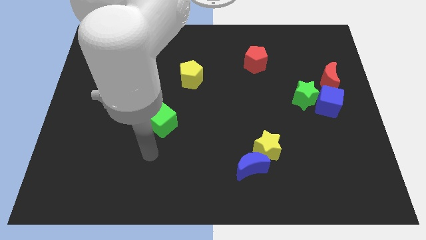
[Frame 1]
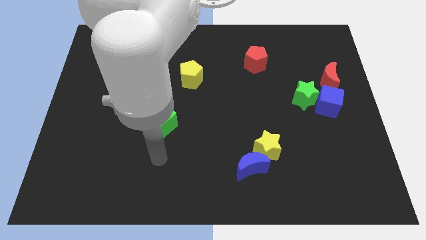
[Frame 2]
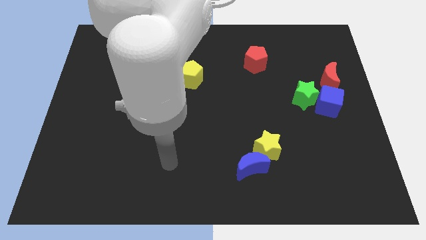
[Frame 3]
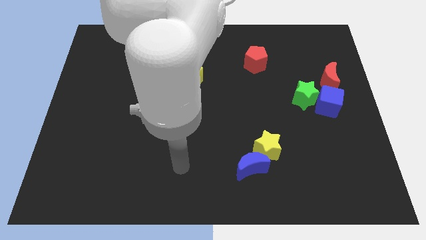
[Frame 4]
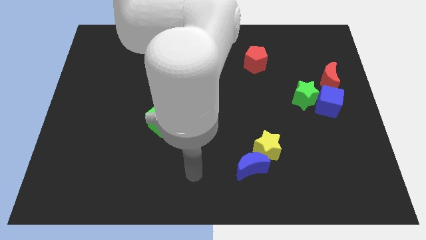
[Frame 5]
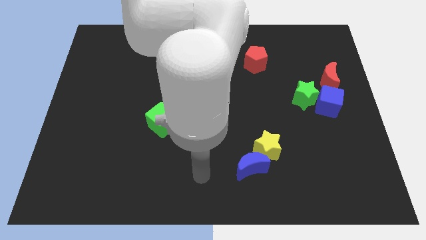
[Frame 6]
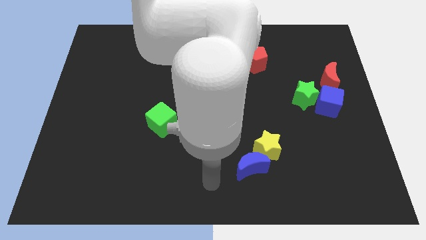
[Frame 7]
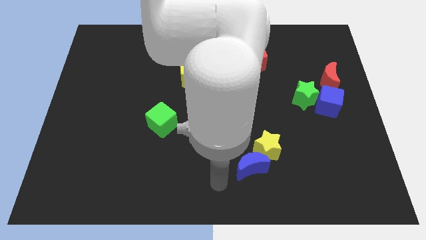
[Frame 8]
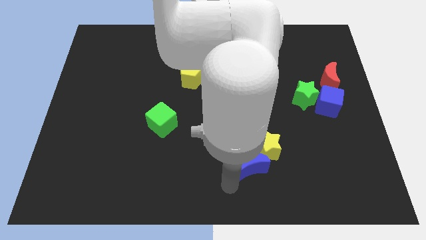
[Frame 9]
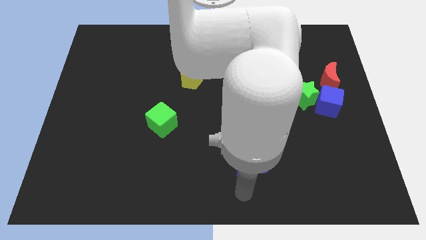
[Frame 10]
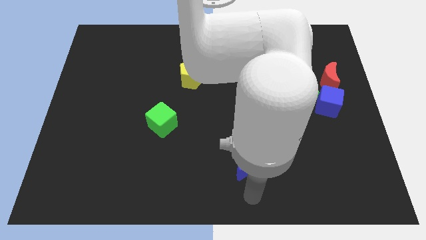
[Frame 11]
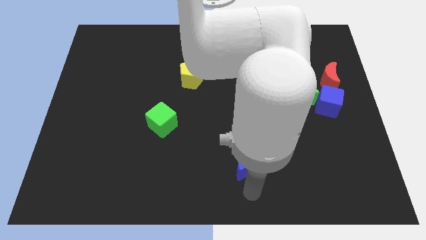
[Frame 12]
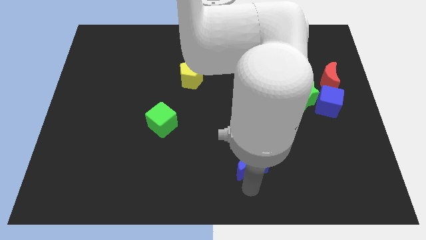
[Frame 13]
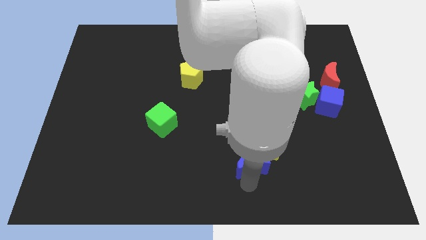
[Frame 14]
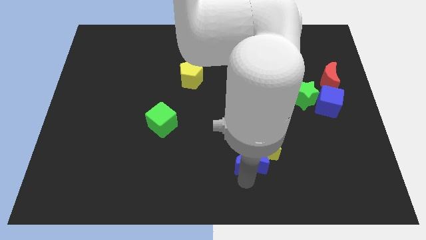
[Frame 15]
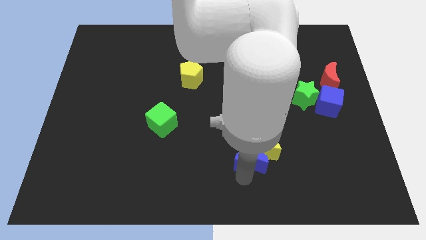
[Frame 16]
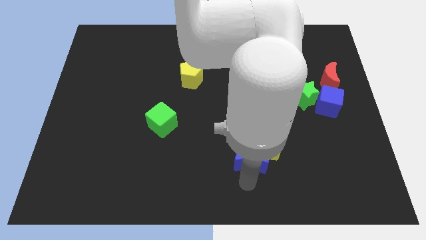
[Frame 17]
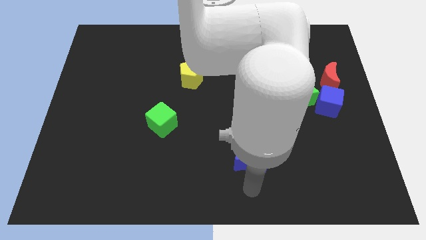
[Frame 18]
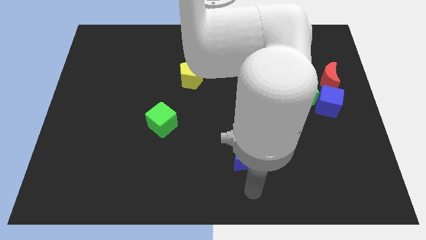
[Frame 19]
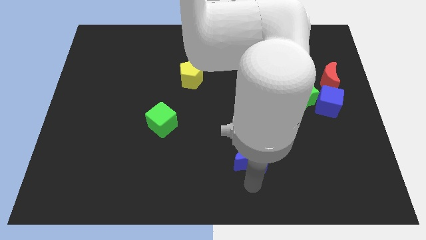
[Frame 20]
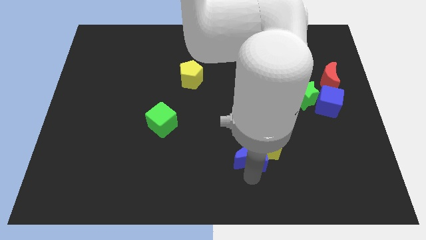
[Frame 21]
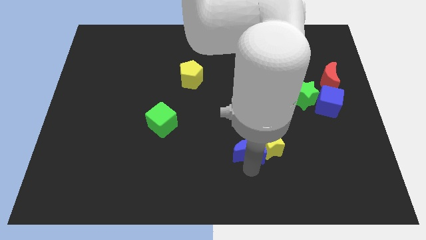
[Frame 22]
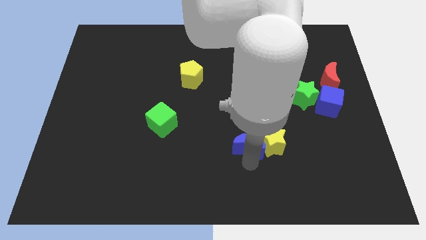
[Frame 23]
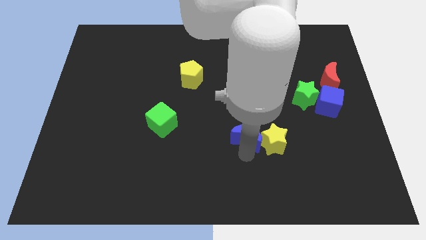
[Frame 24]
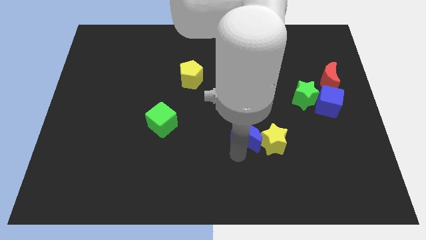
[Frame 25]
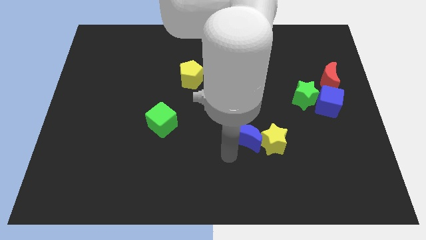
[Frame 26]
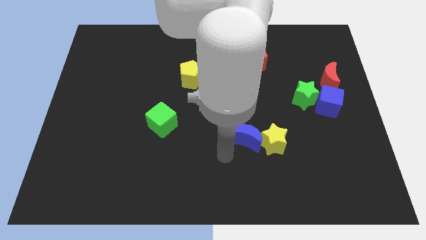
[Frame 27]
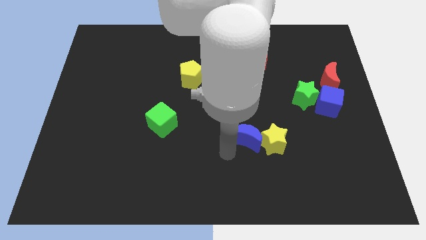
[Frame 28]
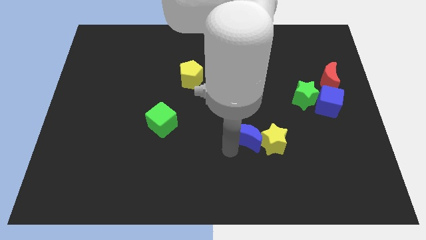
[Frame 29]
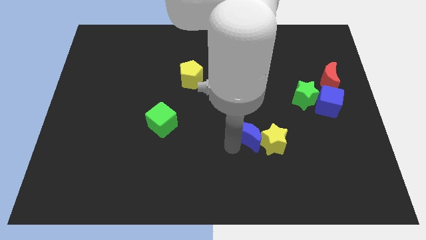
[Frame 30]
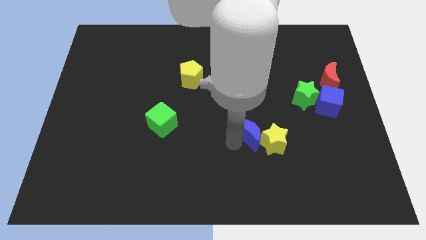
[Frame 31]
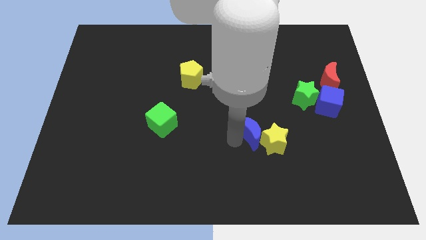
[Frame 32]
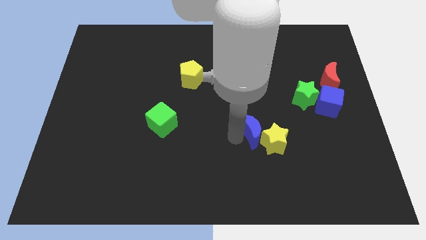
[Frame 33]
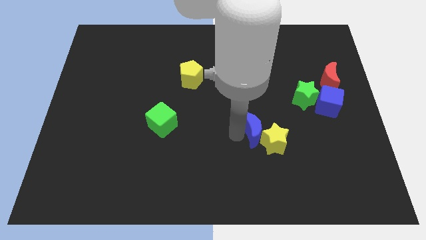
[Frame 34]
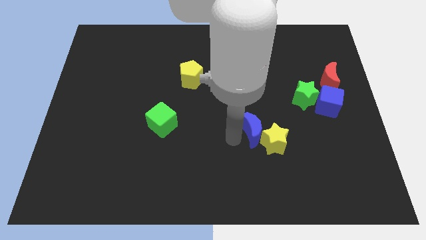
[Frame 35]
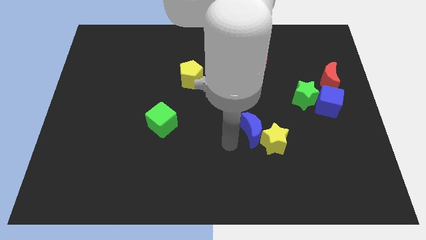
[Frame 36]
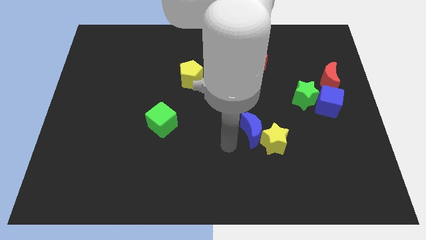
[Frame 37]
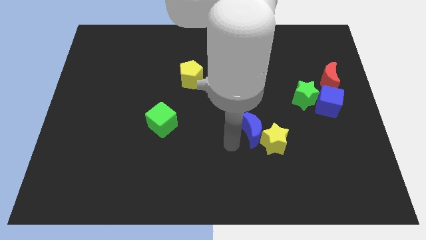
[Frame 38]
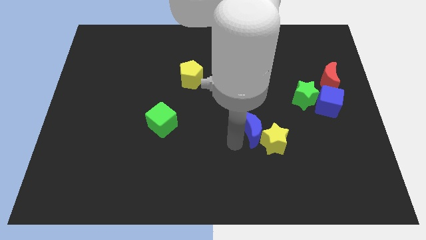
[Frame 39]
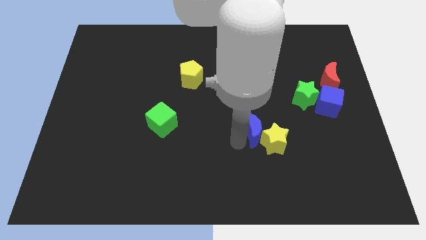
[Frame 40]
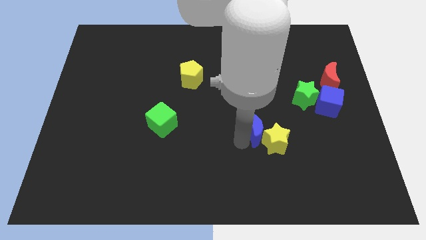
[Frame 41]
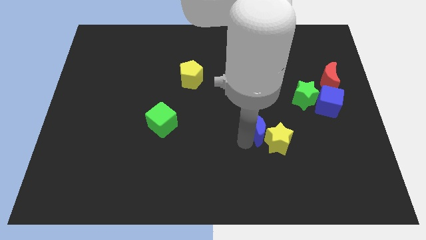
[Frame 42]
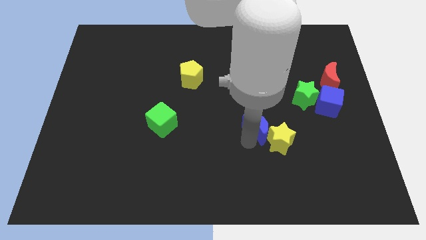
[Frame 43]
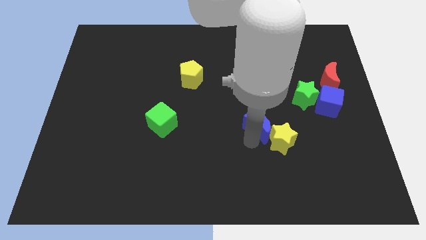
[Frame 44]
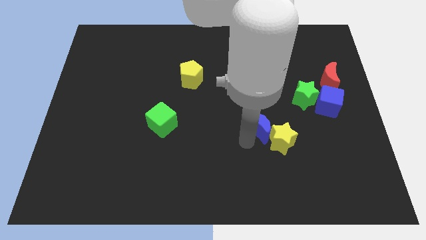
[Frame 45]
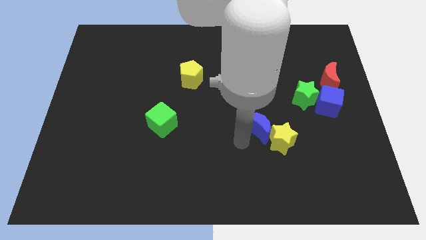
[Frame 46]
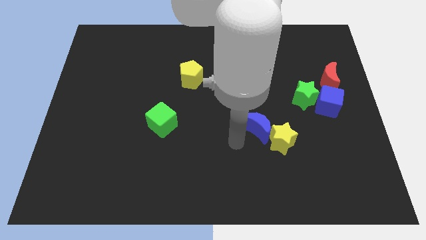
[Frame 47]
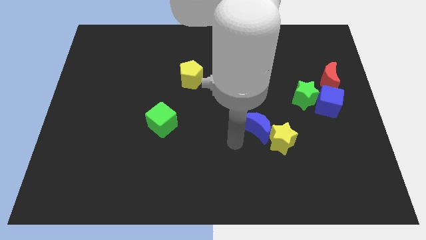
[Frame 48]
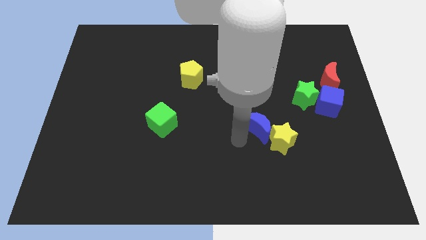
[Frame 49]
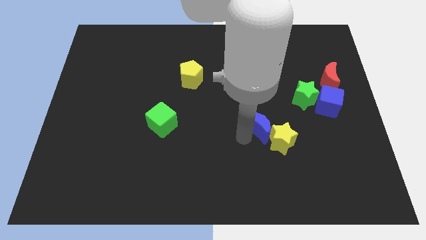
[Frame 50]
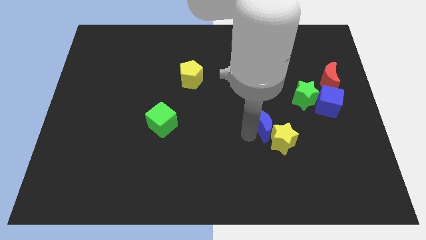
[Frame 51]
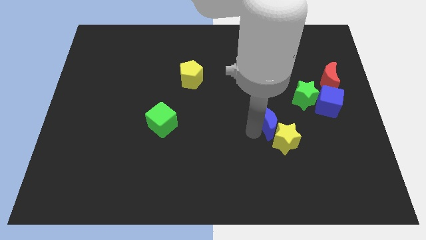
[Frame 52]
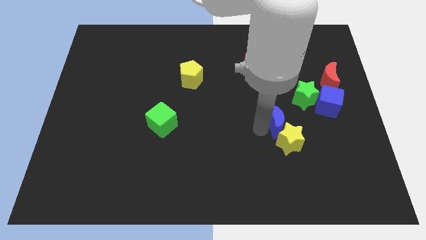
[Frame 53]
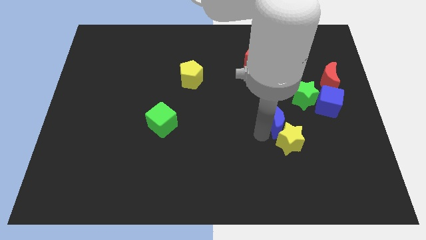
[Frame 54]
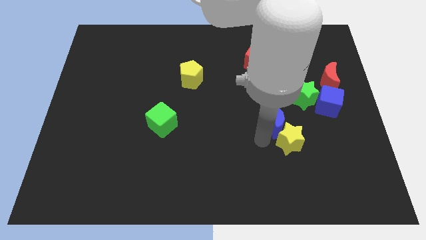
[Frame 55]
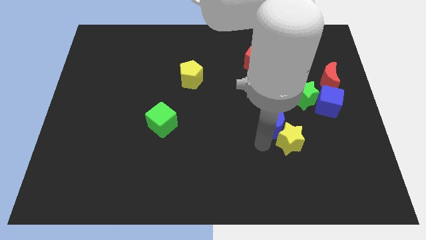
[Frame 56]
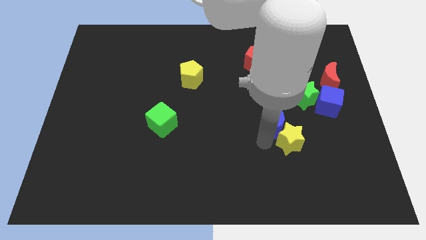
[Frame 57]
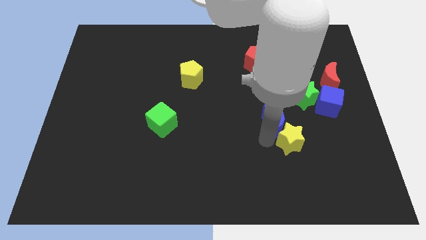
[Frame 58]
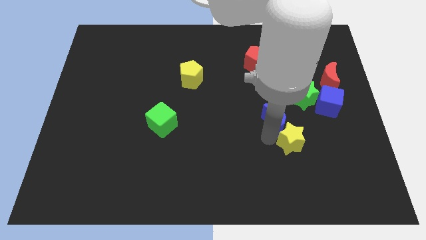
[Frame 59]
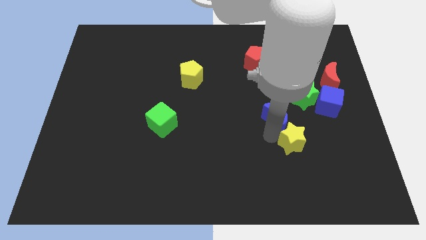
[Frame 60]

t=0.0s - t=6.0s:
put the blue moon left of the blue cube
